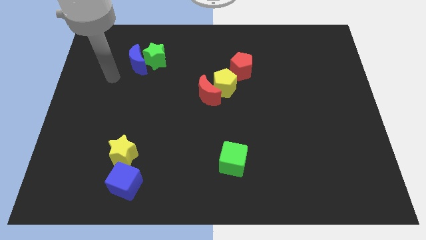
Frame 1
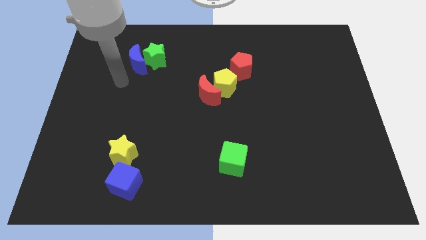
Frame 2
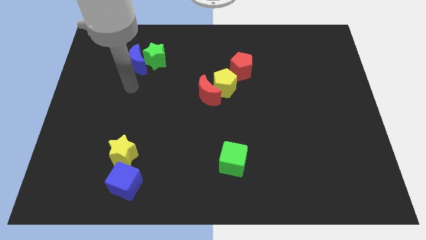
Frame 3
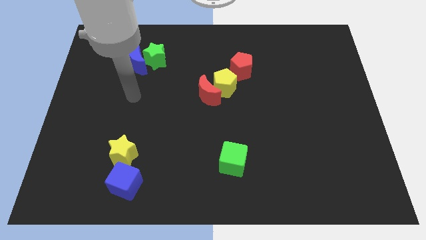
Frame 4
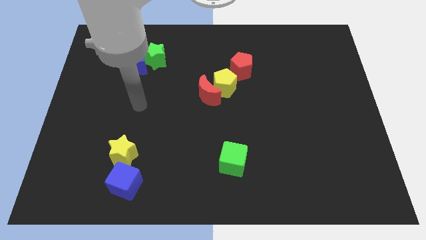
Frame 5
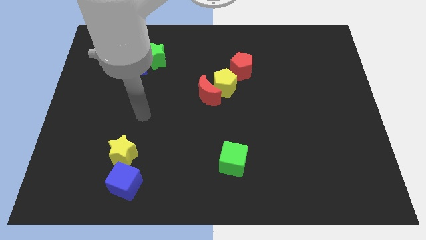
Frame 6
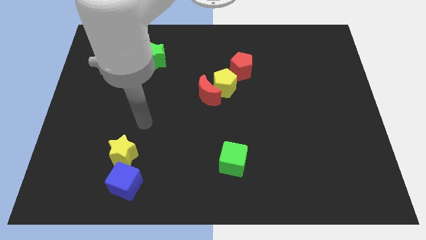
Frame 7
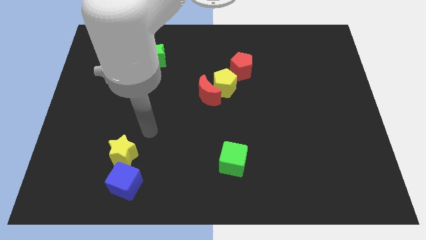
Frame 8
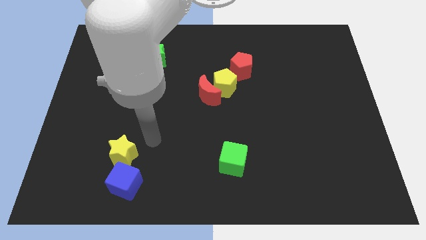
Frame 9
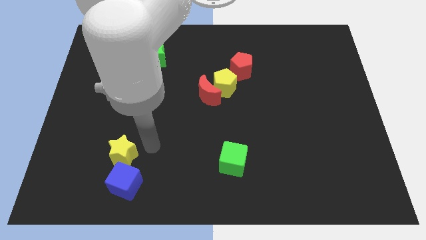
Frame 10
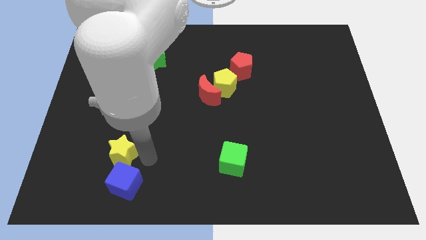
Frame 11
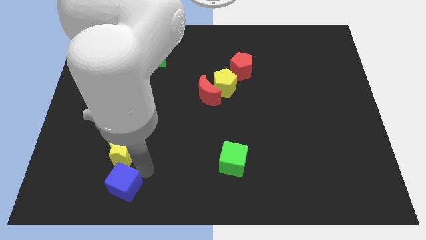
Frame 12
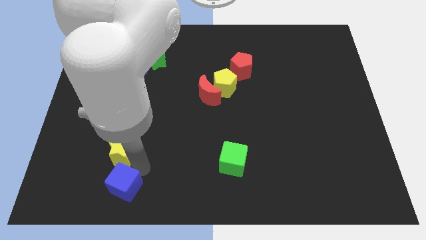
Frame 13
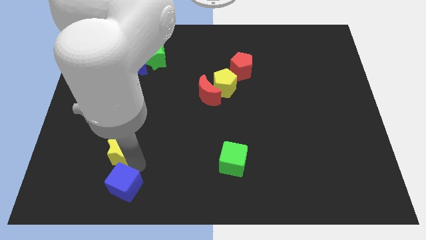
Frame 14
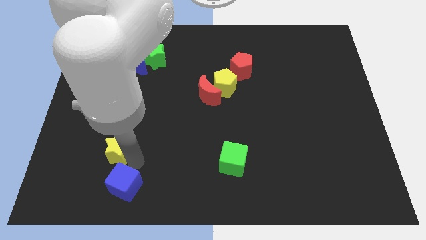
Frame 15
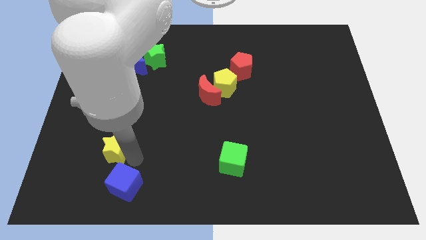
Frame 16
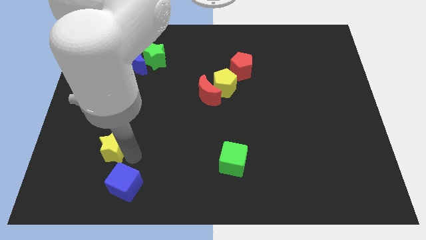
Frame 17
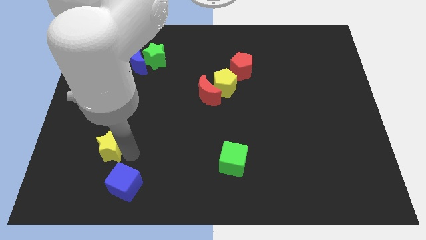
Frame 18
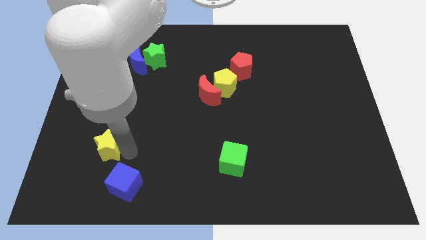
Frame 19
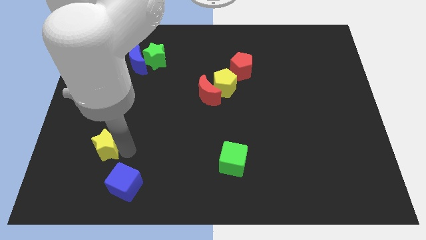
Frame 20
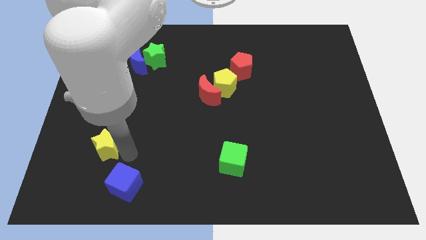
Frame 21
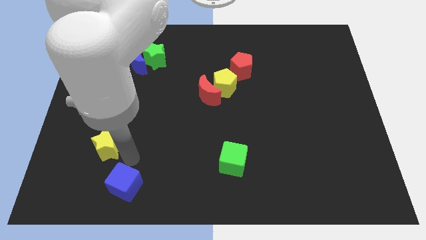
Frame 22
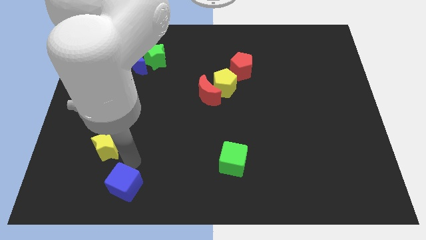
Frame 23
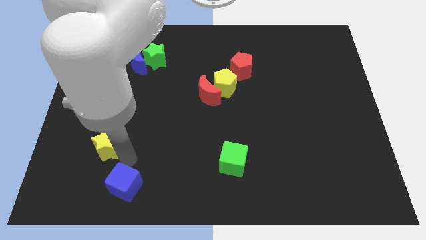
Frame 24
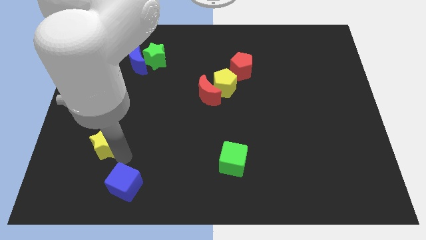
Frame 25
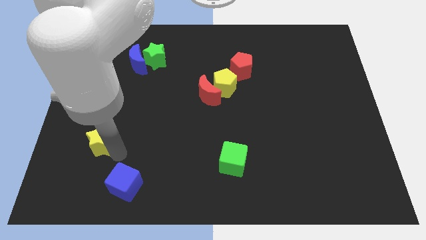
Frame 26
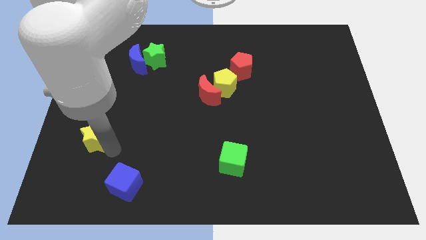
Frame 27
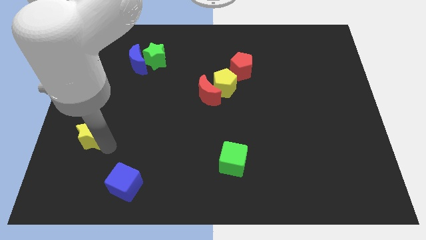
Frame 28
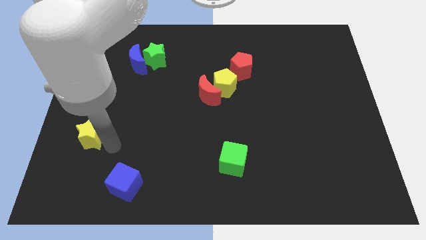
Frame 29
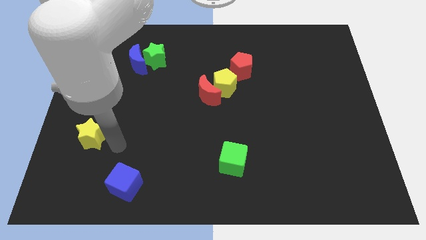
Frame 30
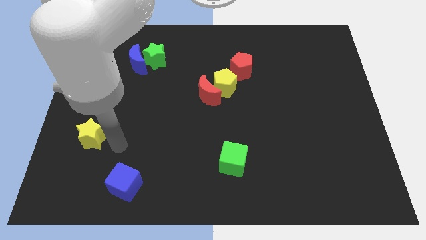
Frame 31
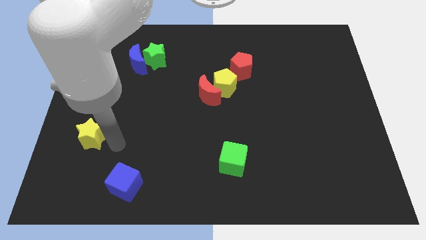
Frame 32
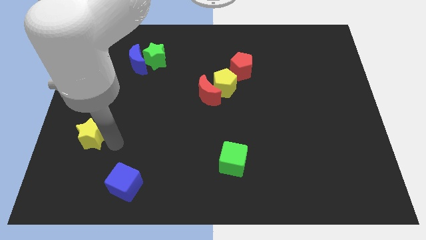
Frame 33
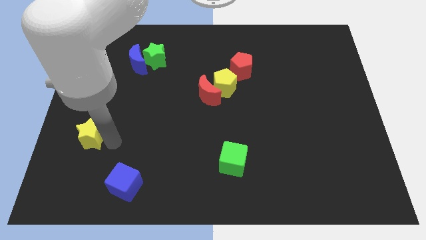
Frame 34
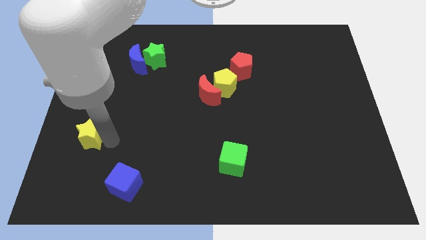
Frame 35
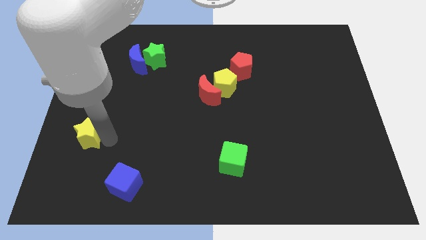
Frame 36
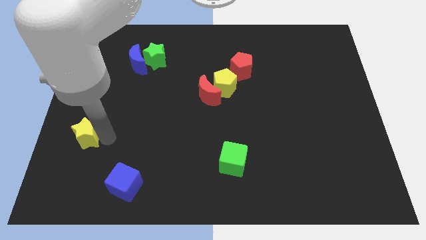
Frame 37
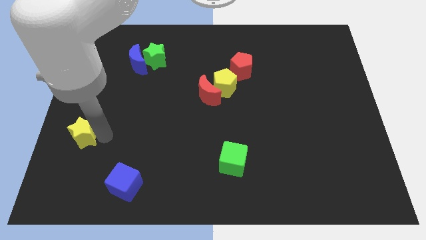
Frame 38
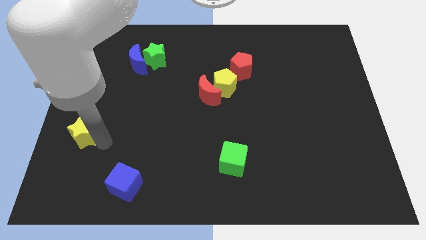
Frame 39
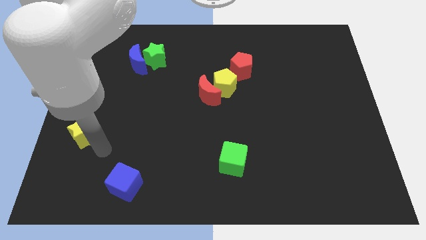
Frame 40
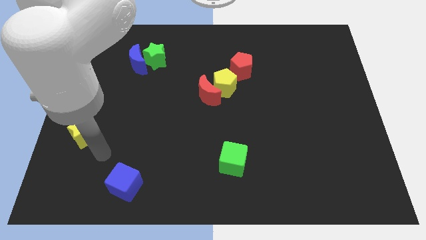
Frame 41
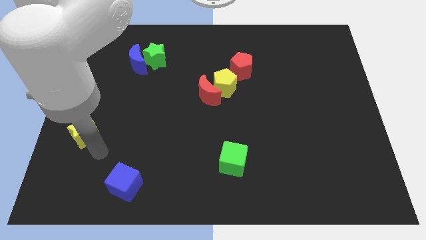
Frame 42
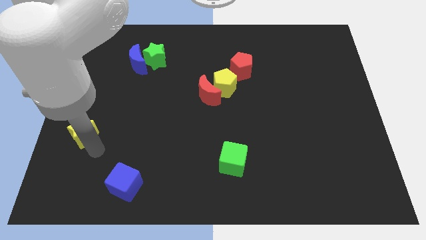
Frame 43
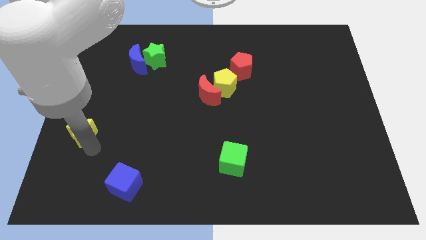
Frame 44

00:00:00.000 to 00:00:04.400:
push the yellow star to the left side

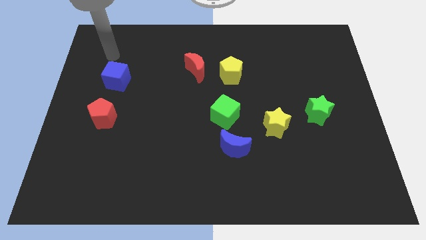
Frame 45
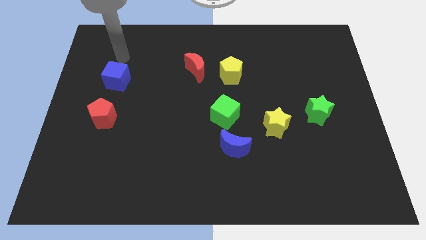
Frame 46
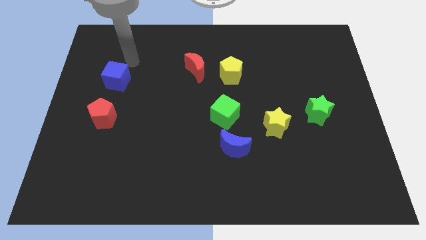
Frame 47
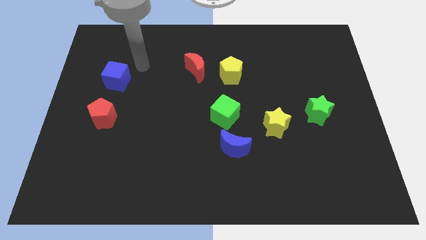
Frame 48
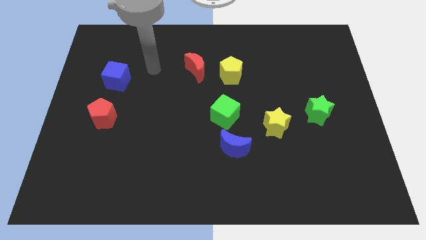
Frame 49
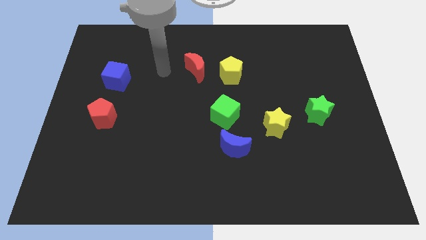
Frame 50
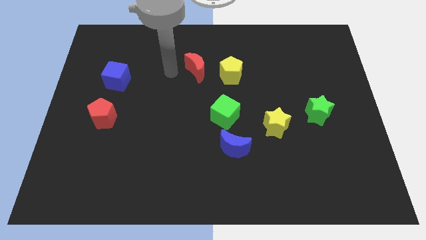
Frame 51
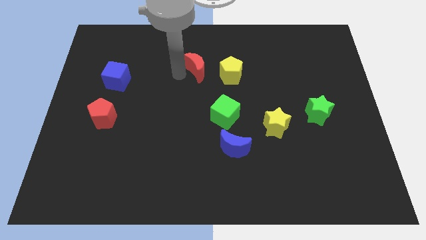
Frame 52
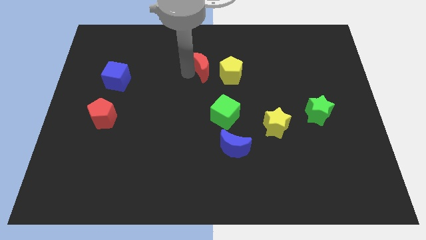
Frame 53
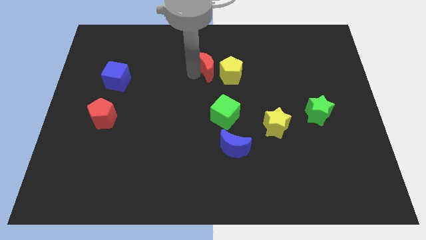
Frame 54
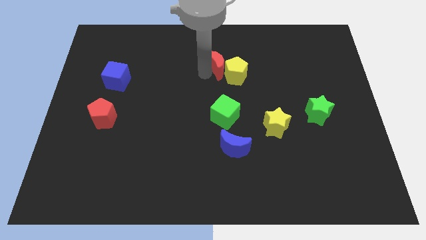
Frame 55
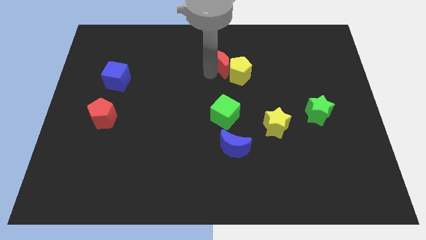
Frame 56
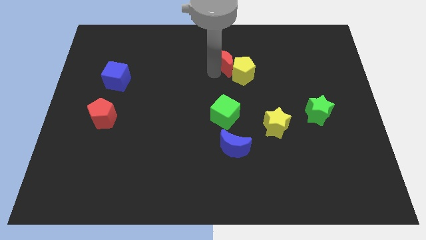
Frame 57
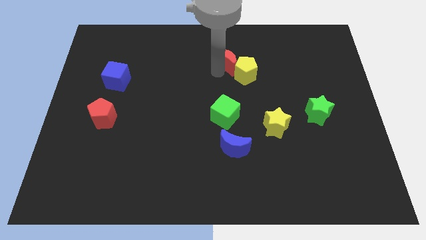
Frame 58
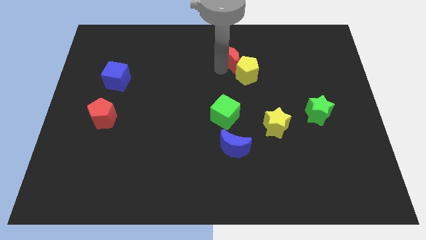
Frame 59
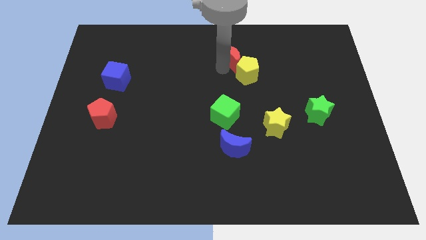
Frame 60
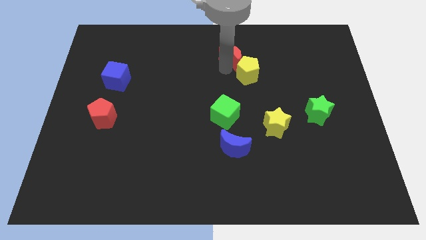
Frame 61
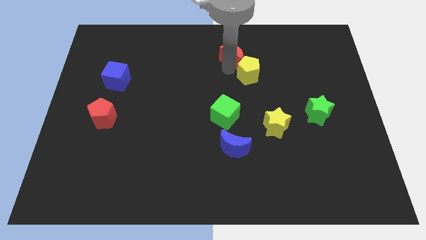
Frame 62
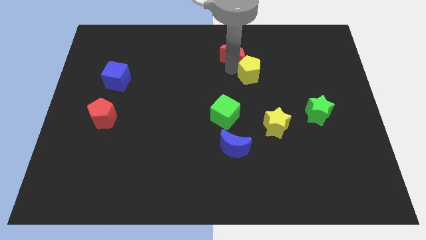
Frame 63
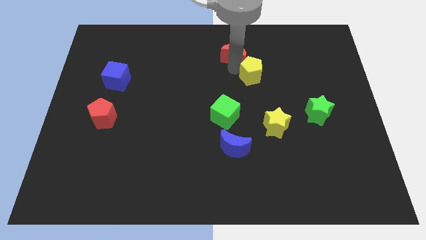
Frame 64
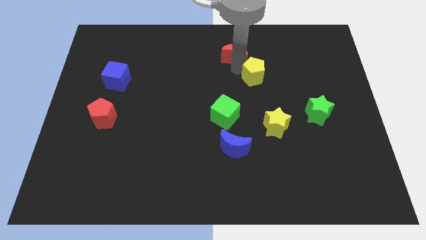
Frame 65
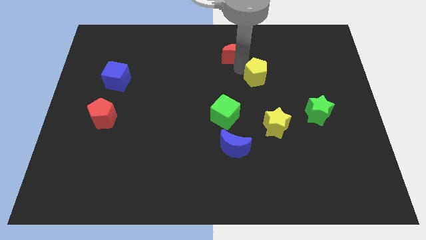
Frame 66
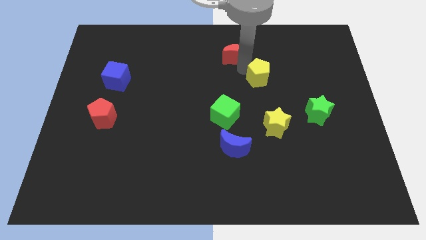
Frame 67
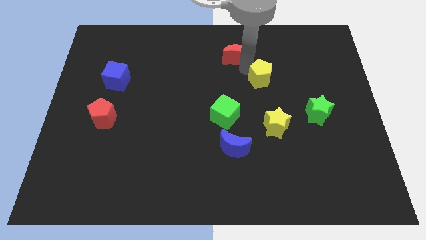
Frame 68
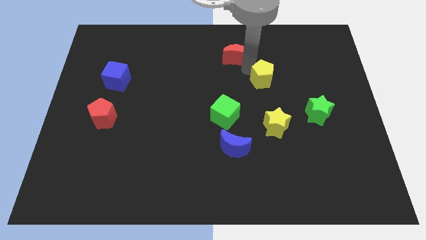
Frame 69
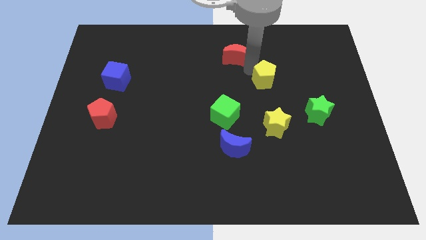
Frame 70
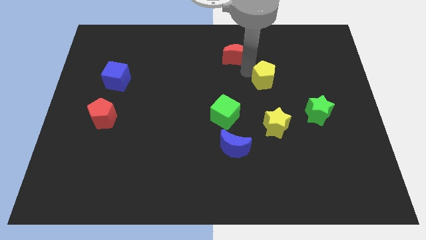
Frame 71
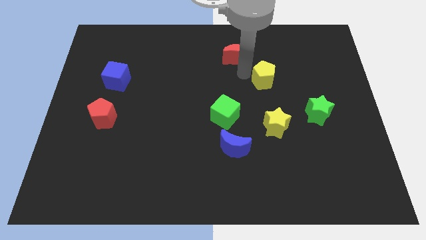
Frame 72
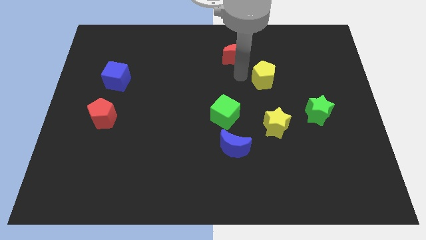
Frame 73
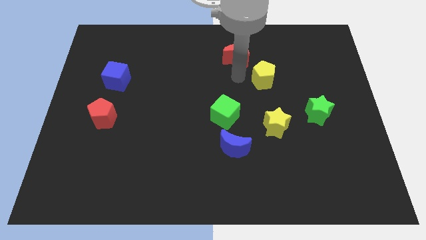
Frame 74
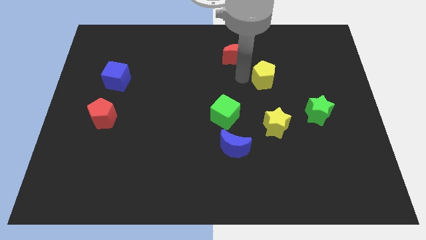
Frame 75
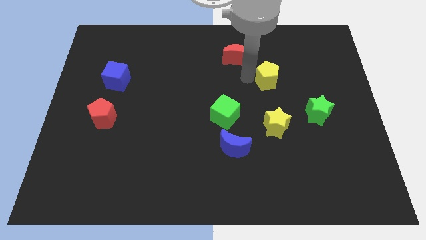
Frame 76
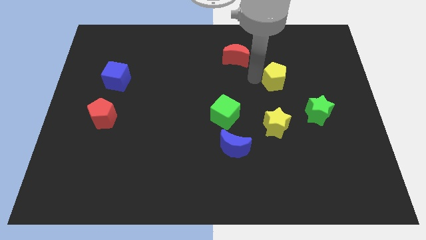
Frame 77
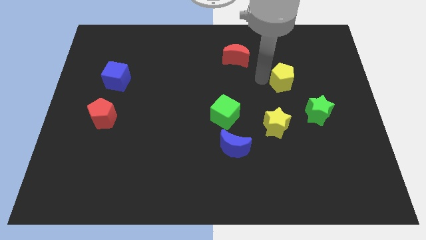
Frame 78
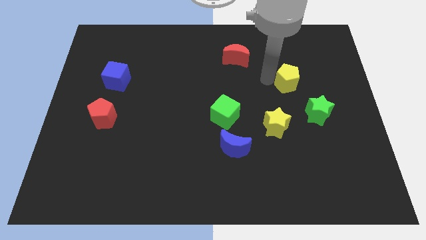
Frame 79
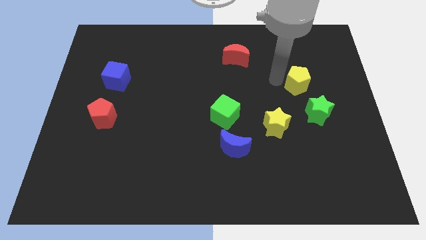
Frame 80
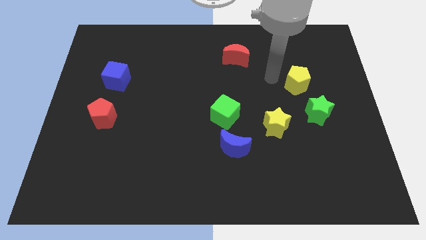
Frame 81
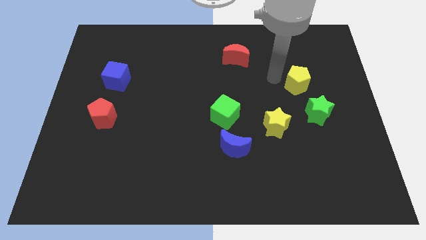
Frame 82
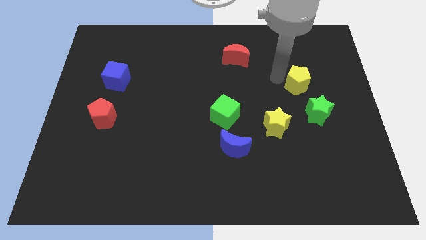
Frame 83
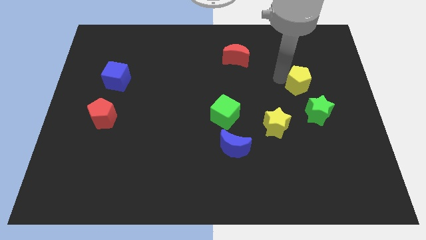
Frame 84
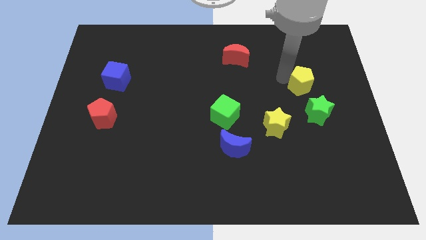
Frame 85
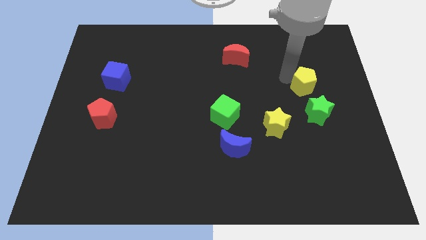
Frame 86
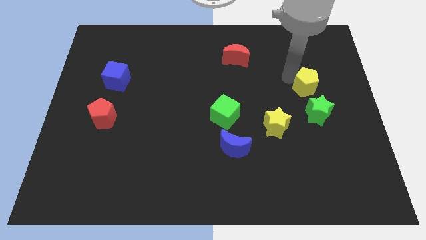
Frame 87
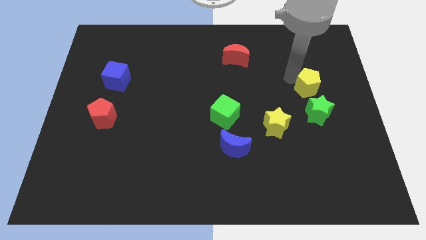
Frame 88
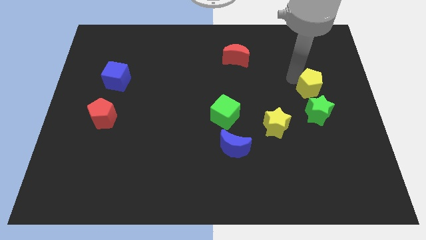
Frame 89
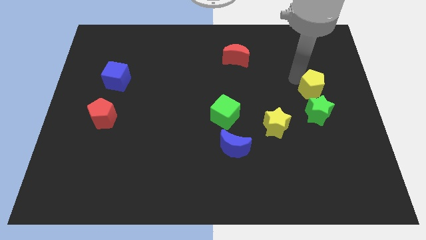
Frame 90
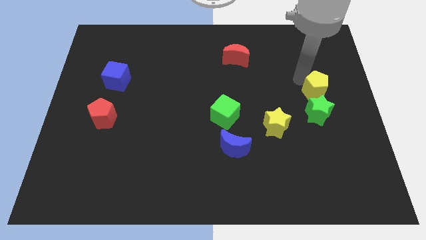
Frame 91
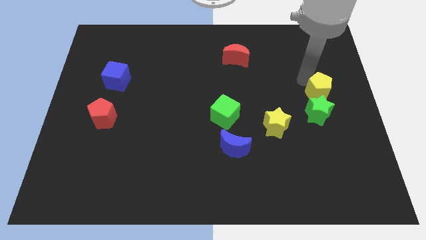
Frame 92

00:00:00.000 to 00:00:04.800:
move the yellow pentagon to the right side of the board
